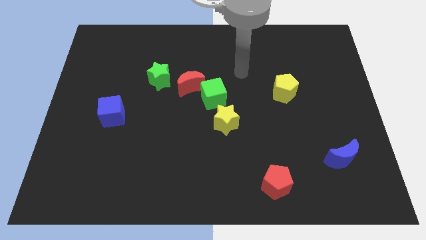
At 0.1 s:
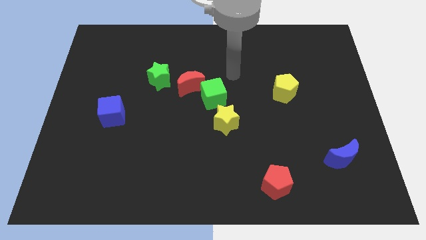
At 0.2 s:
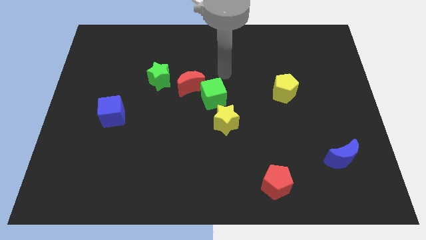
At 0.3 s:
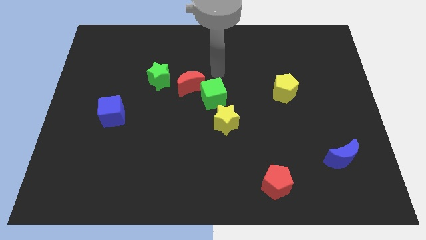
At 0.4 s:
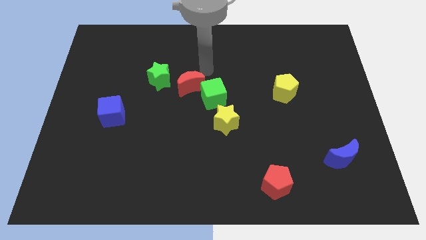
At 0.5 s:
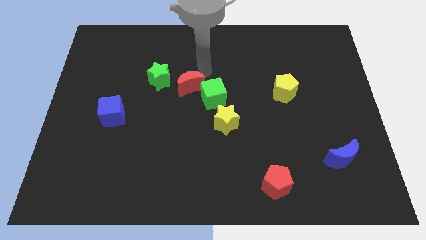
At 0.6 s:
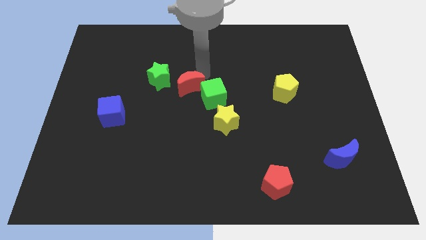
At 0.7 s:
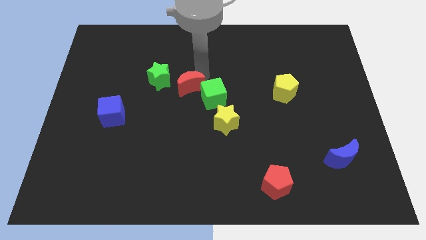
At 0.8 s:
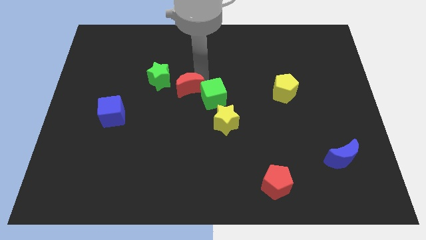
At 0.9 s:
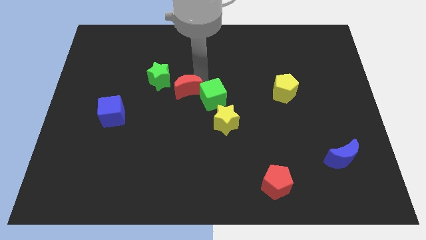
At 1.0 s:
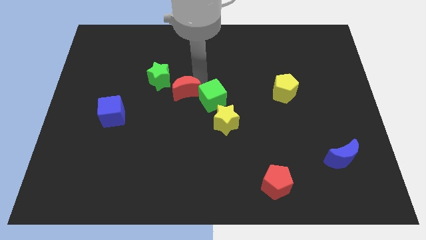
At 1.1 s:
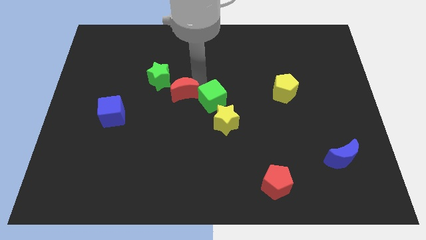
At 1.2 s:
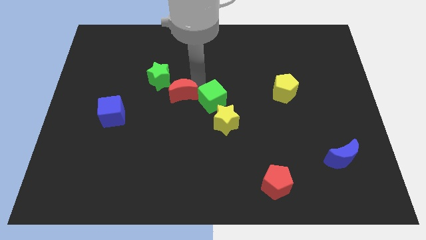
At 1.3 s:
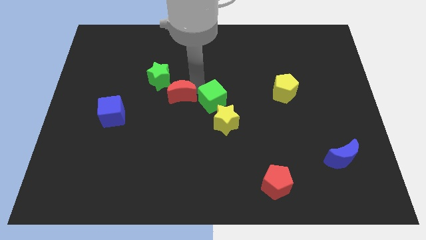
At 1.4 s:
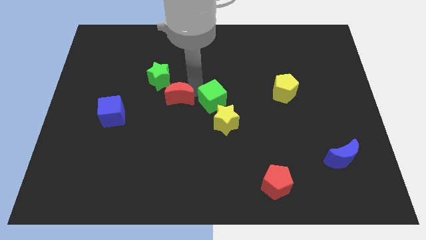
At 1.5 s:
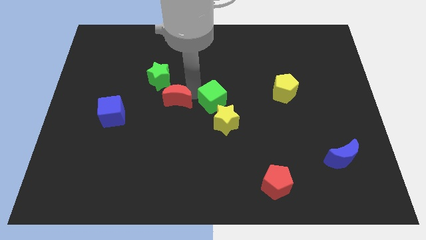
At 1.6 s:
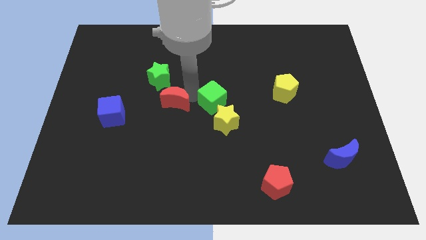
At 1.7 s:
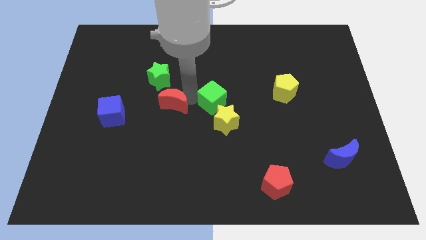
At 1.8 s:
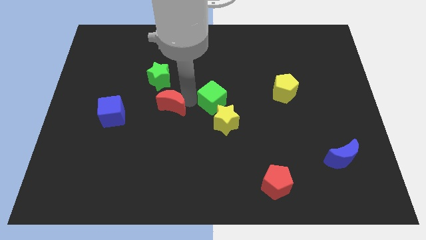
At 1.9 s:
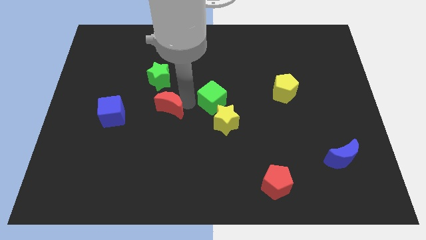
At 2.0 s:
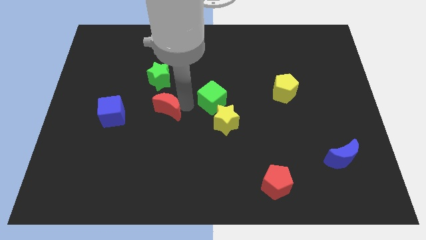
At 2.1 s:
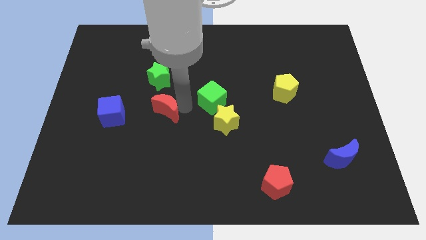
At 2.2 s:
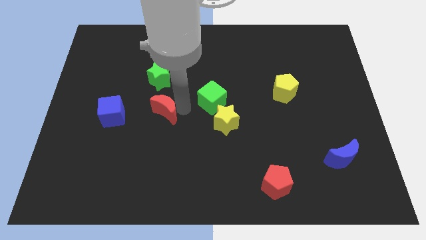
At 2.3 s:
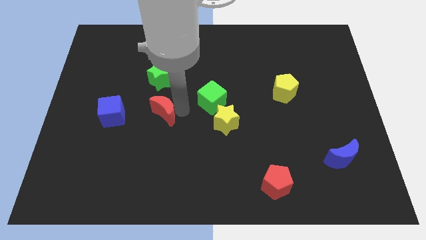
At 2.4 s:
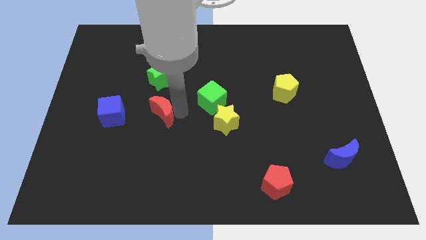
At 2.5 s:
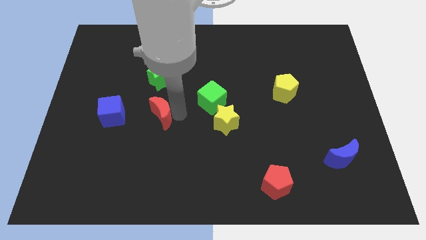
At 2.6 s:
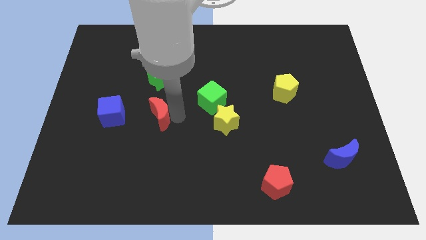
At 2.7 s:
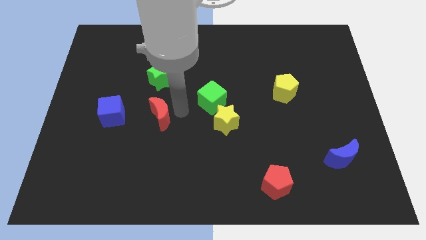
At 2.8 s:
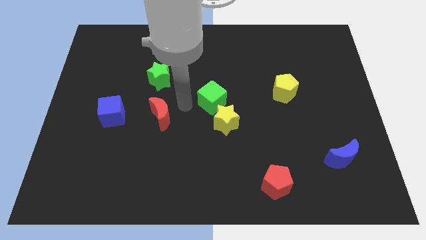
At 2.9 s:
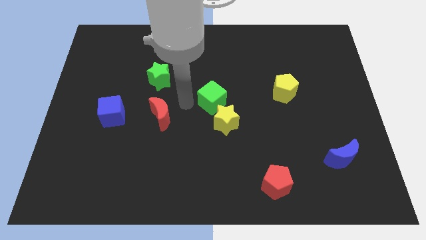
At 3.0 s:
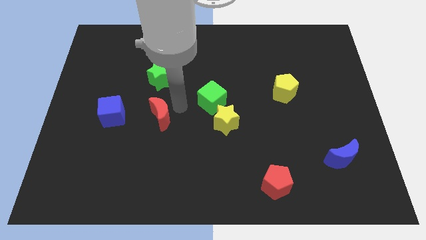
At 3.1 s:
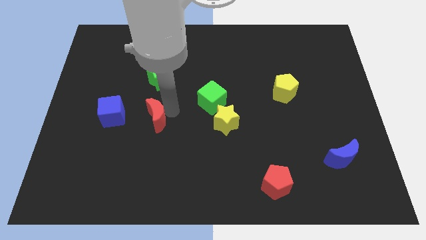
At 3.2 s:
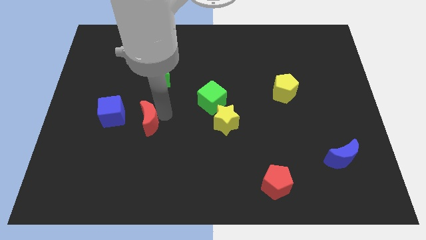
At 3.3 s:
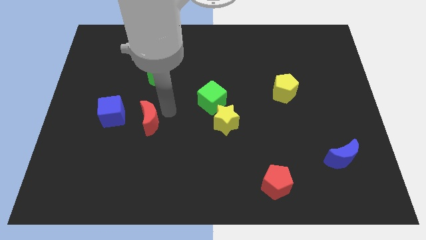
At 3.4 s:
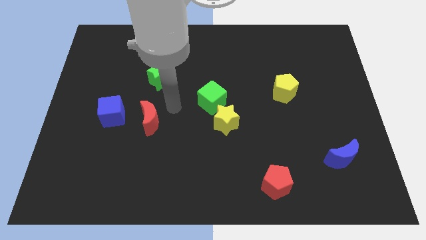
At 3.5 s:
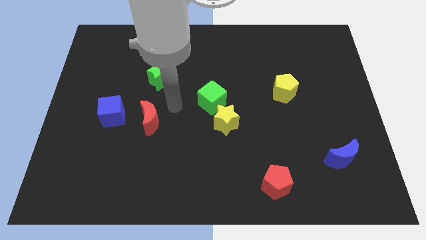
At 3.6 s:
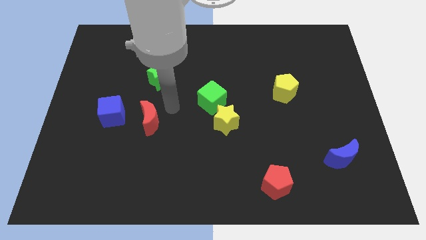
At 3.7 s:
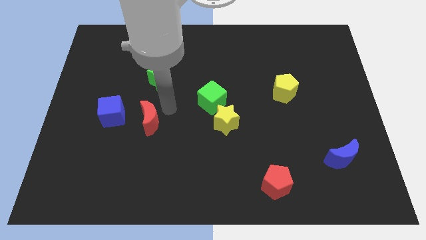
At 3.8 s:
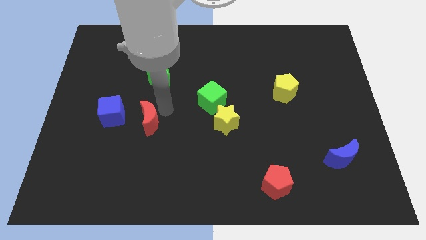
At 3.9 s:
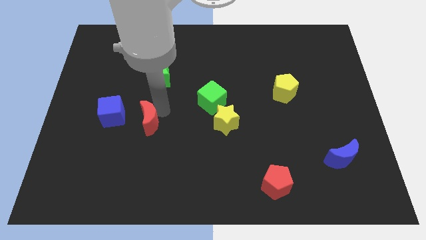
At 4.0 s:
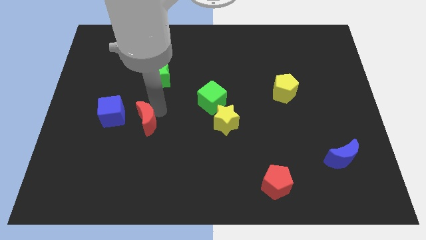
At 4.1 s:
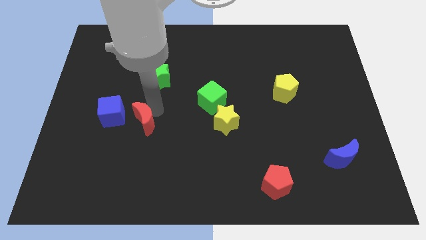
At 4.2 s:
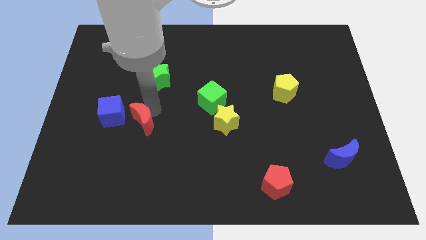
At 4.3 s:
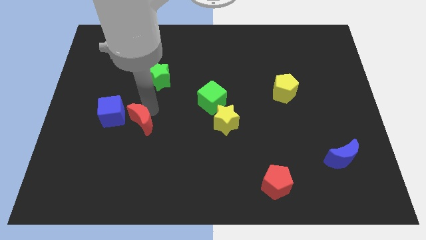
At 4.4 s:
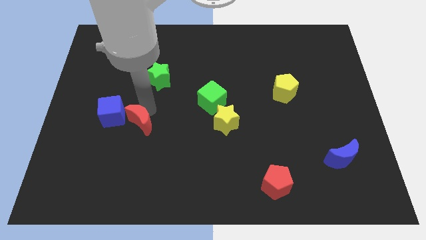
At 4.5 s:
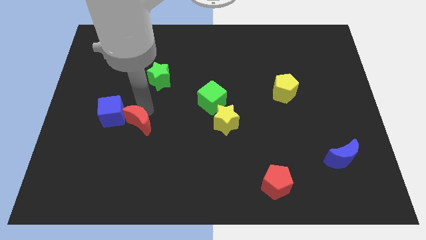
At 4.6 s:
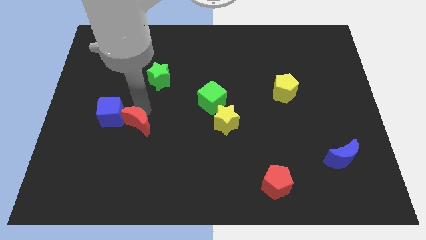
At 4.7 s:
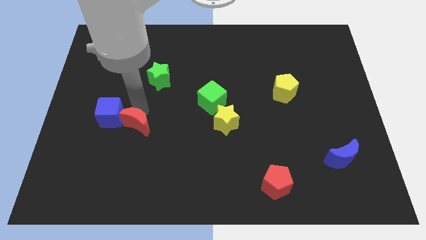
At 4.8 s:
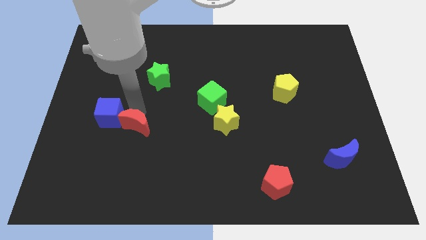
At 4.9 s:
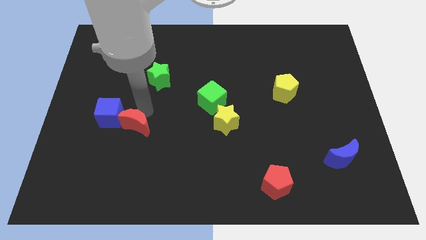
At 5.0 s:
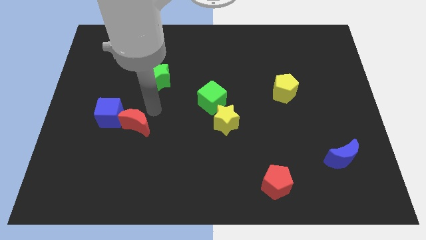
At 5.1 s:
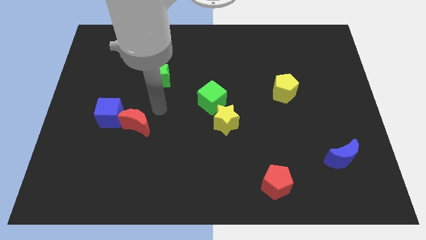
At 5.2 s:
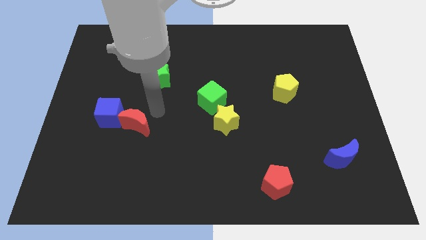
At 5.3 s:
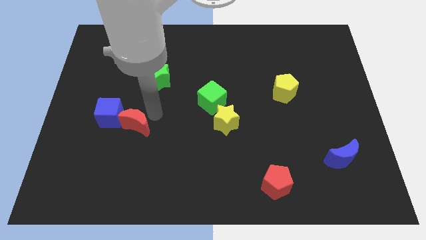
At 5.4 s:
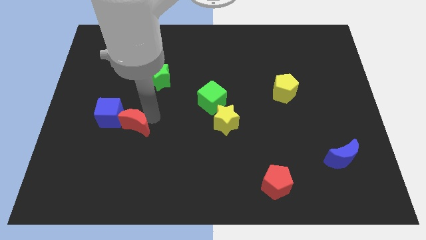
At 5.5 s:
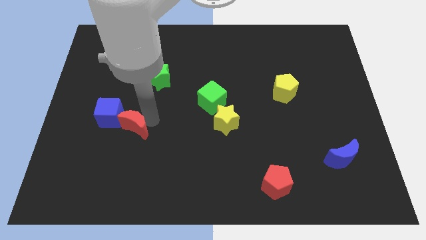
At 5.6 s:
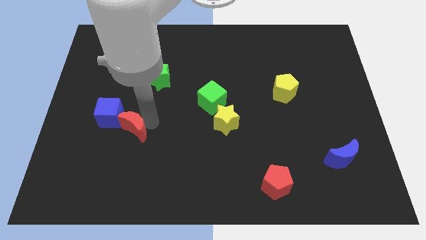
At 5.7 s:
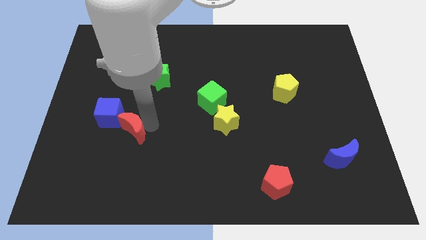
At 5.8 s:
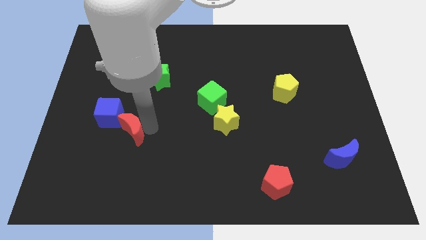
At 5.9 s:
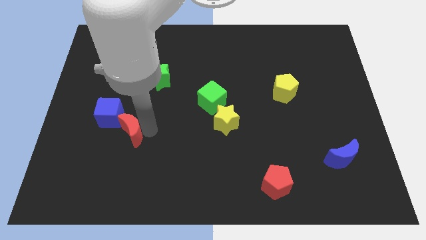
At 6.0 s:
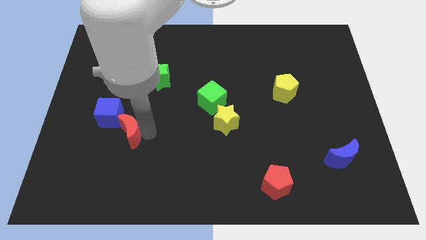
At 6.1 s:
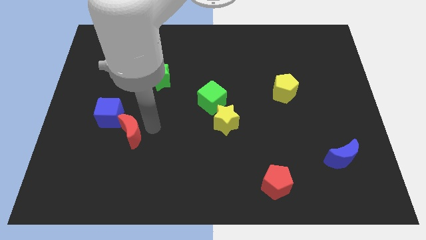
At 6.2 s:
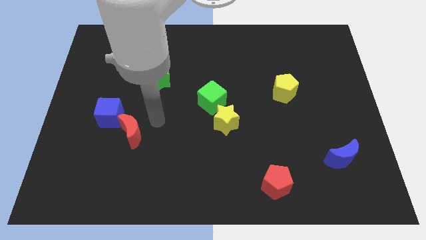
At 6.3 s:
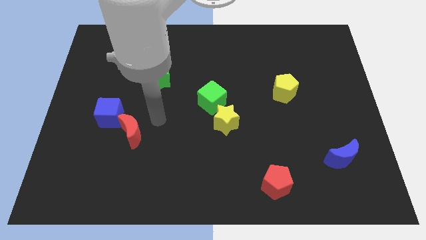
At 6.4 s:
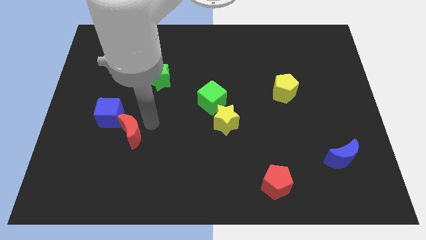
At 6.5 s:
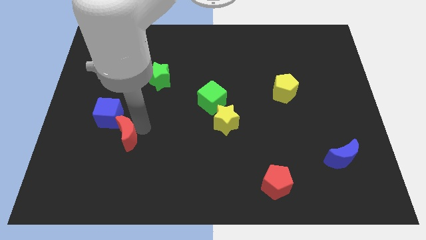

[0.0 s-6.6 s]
move the red moon downwards and left

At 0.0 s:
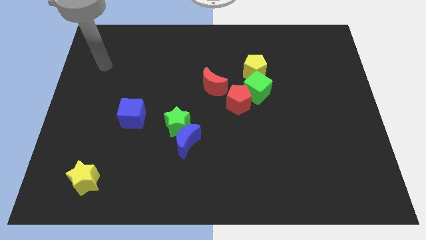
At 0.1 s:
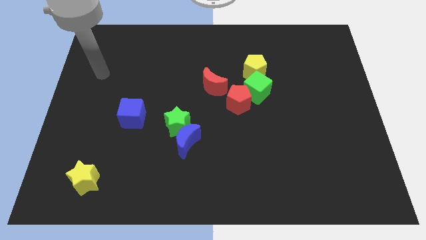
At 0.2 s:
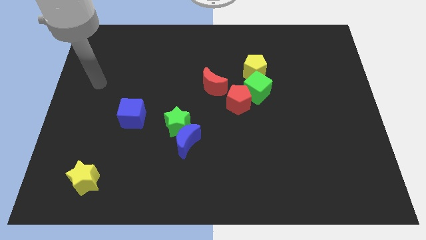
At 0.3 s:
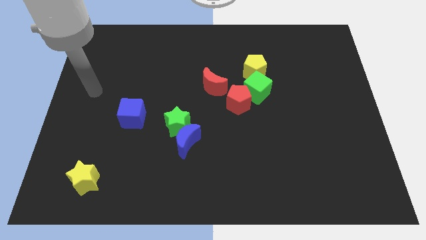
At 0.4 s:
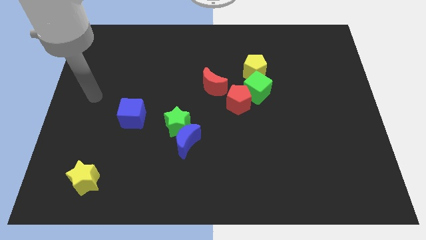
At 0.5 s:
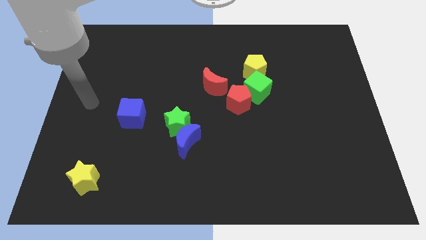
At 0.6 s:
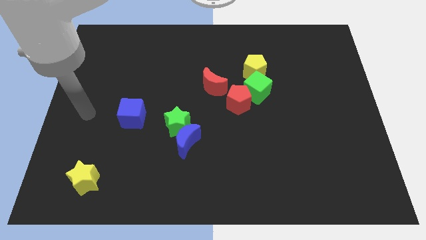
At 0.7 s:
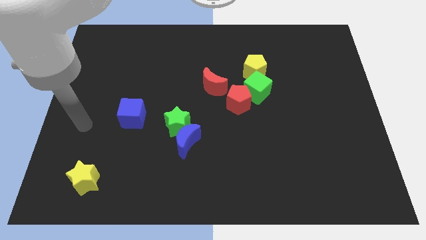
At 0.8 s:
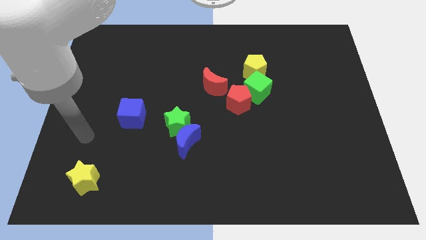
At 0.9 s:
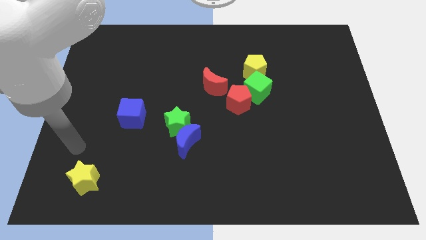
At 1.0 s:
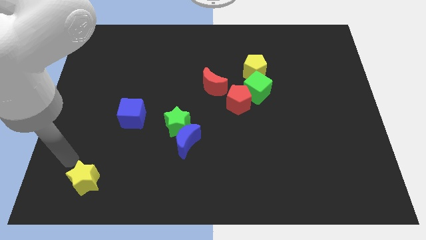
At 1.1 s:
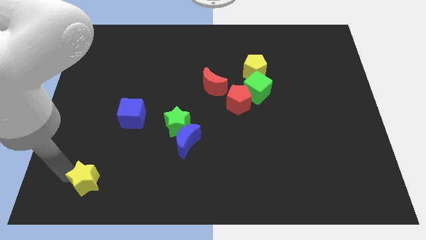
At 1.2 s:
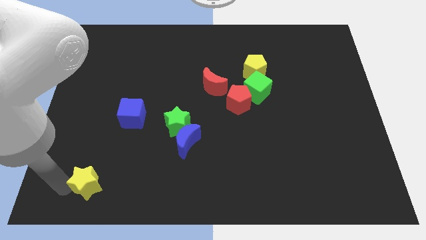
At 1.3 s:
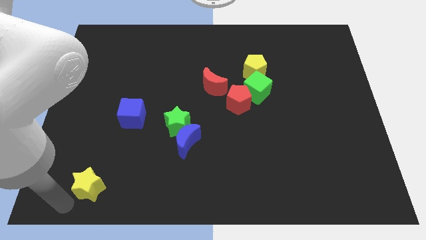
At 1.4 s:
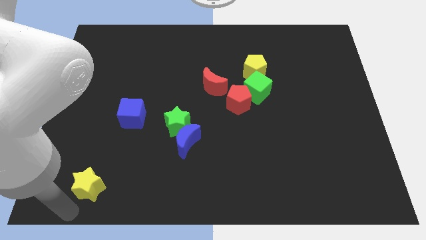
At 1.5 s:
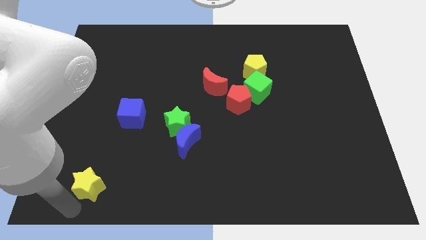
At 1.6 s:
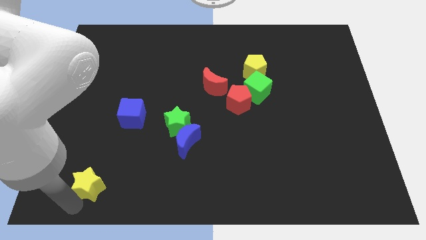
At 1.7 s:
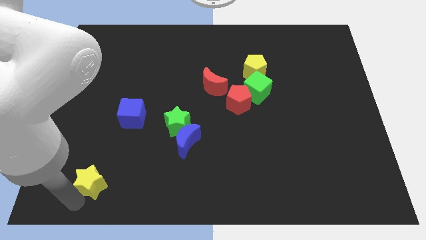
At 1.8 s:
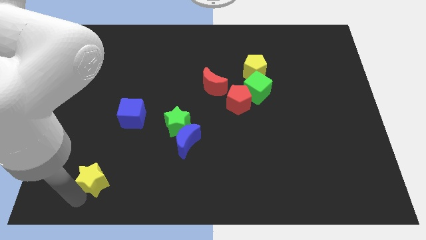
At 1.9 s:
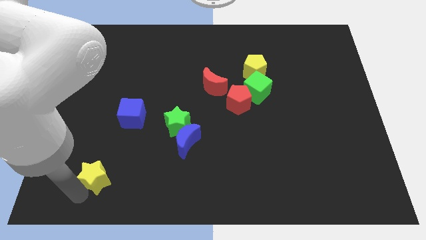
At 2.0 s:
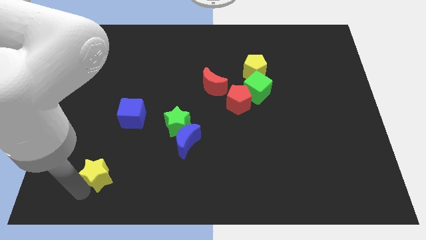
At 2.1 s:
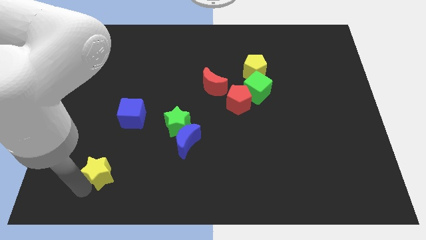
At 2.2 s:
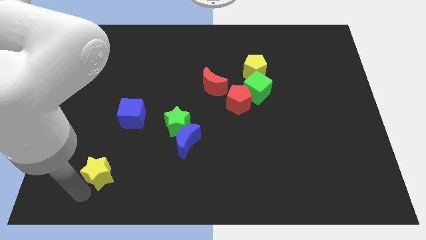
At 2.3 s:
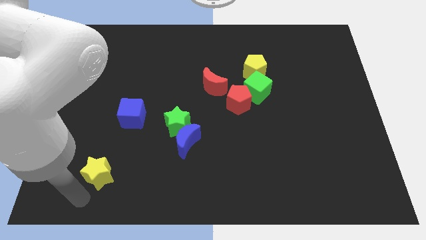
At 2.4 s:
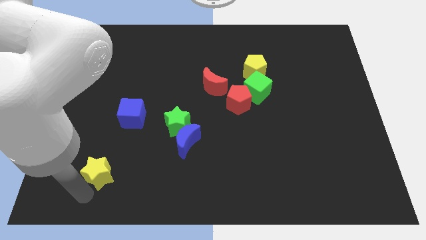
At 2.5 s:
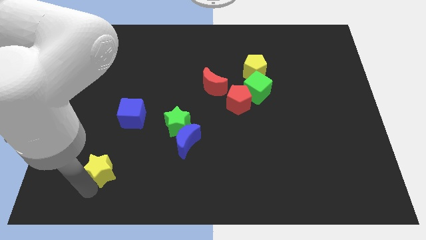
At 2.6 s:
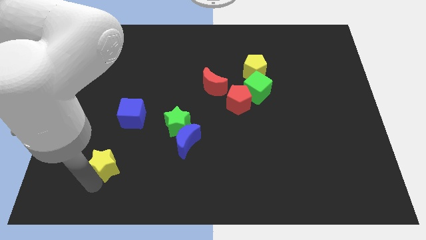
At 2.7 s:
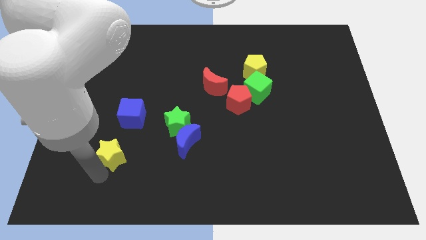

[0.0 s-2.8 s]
move the yellow star a little upwards and to the right diagonally
